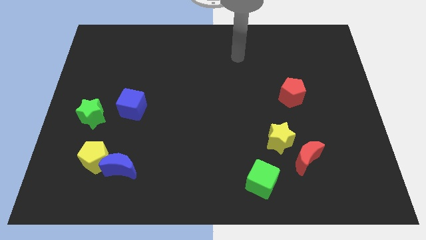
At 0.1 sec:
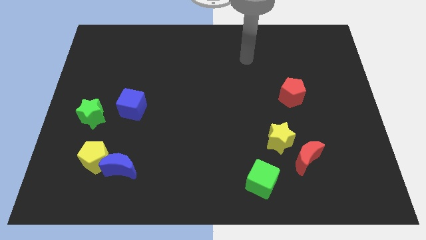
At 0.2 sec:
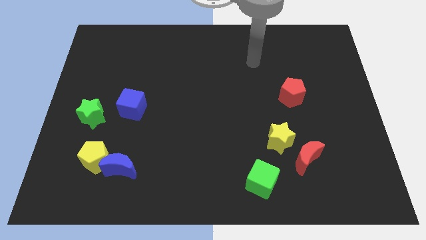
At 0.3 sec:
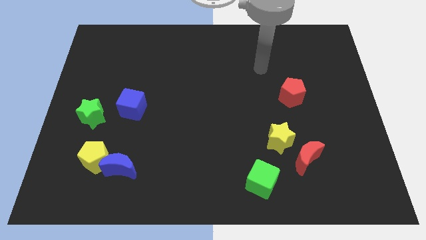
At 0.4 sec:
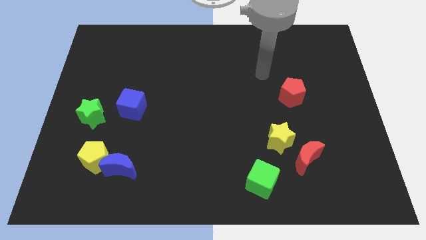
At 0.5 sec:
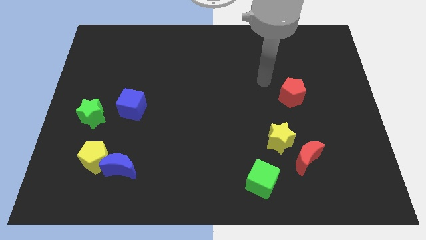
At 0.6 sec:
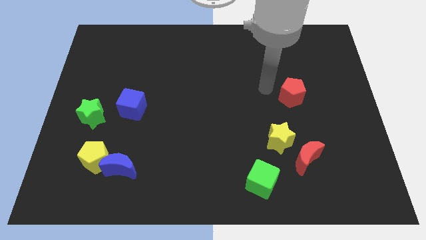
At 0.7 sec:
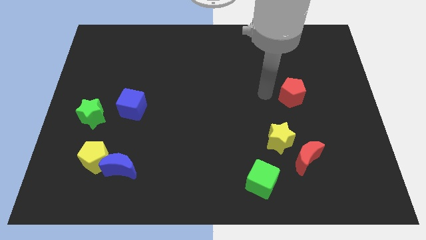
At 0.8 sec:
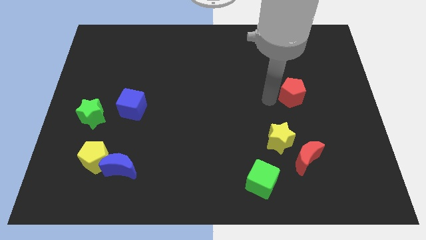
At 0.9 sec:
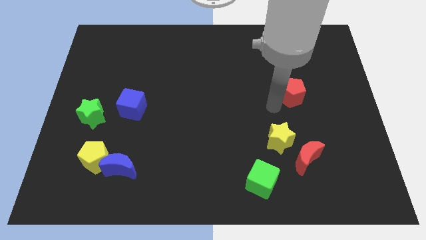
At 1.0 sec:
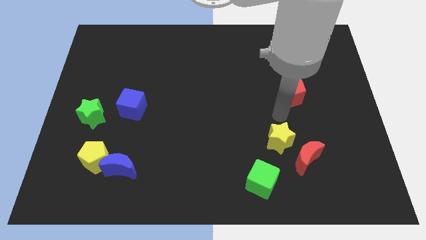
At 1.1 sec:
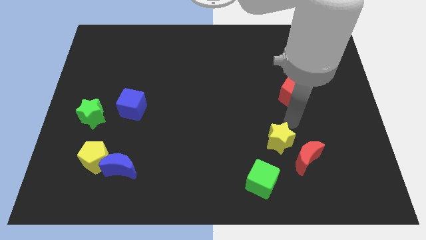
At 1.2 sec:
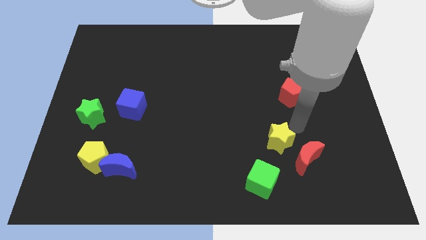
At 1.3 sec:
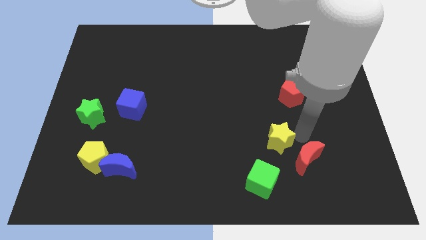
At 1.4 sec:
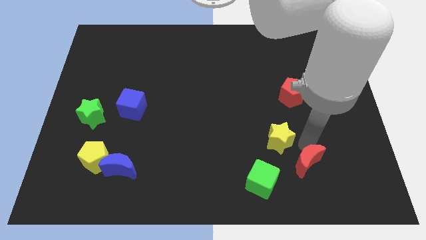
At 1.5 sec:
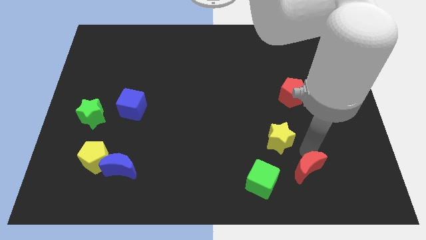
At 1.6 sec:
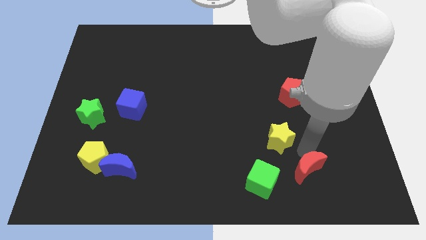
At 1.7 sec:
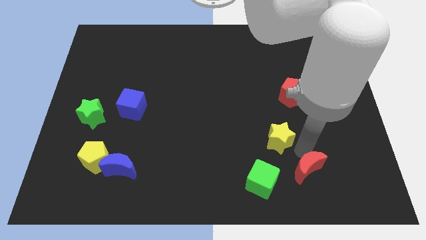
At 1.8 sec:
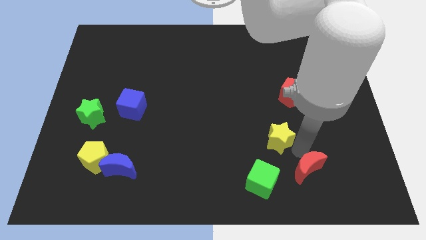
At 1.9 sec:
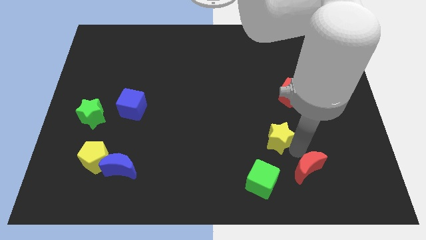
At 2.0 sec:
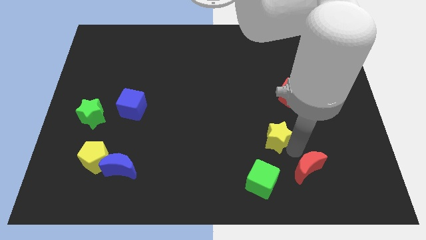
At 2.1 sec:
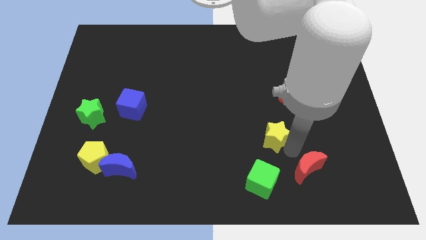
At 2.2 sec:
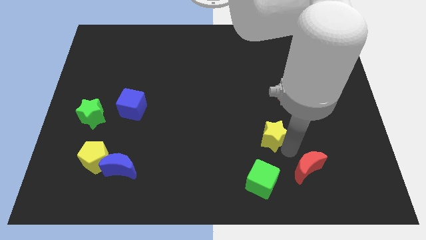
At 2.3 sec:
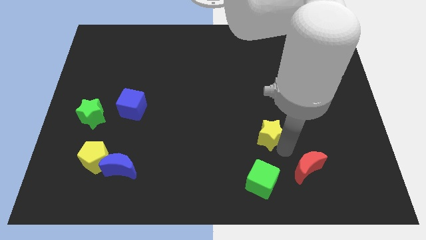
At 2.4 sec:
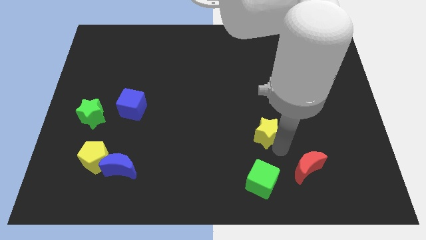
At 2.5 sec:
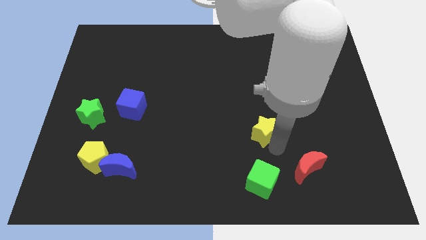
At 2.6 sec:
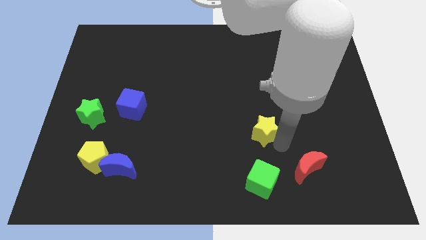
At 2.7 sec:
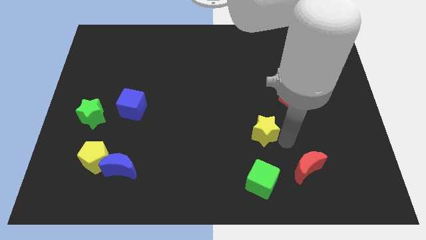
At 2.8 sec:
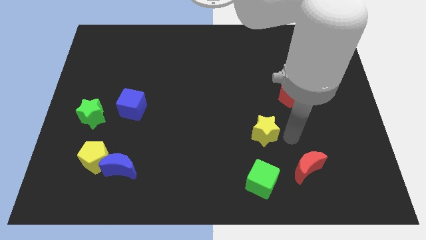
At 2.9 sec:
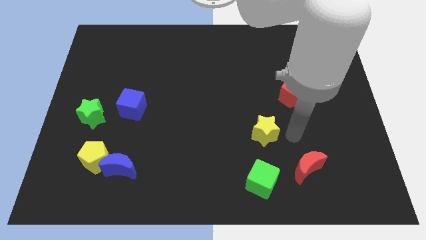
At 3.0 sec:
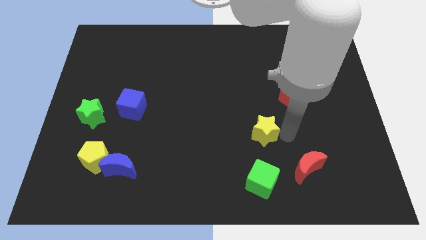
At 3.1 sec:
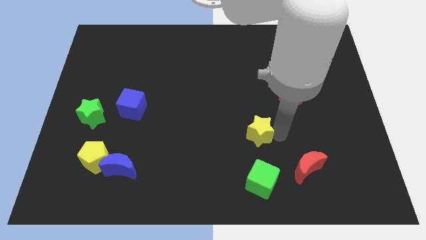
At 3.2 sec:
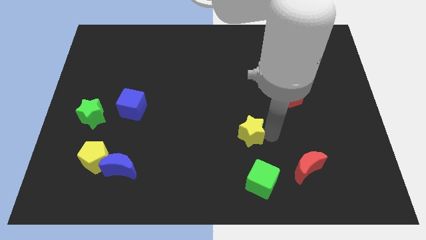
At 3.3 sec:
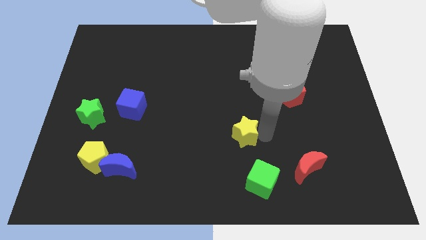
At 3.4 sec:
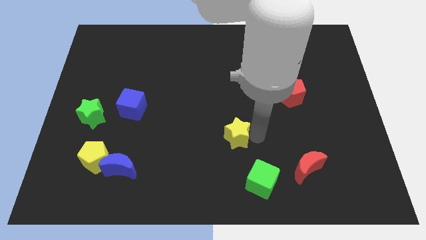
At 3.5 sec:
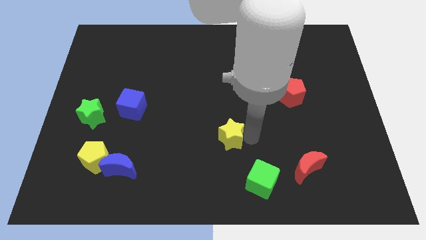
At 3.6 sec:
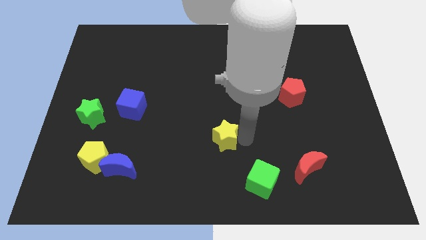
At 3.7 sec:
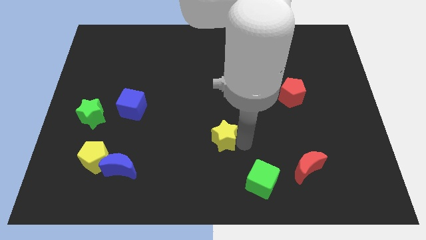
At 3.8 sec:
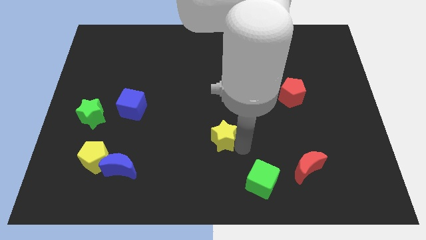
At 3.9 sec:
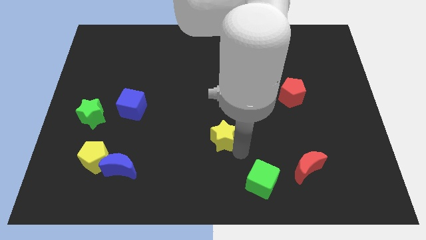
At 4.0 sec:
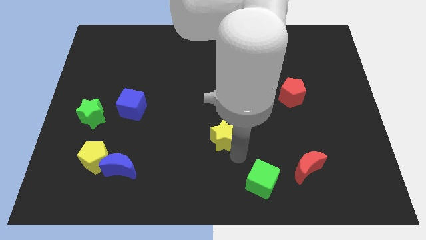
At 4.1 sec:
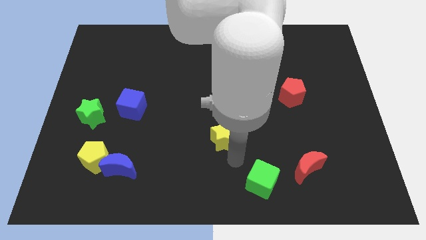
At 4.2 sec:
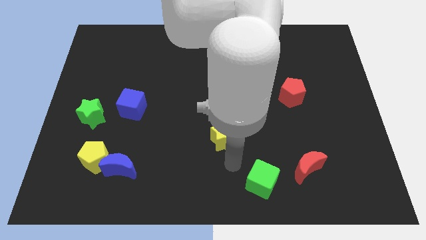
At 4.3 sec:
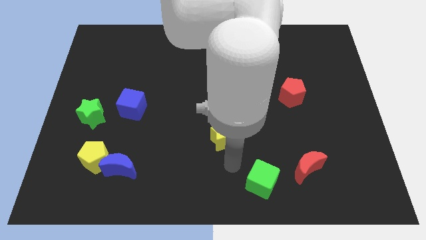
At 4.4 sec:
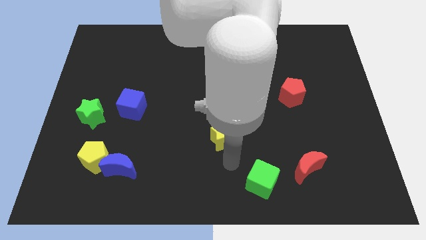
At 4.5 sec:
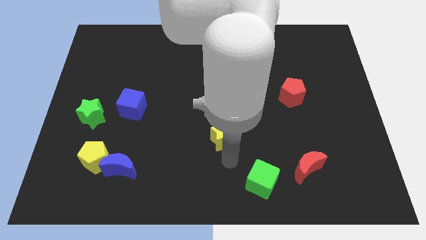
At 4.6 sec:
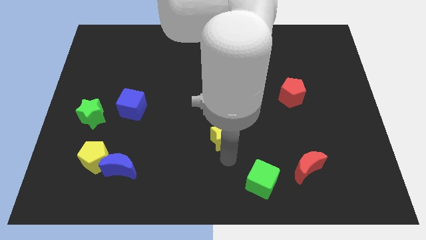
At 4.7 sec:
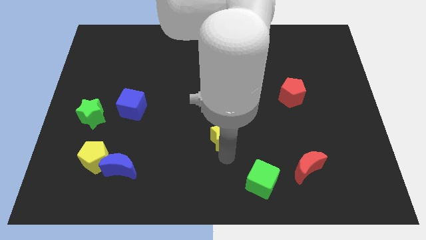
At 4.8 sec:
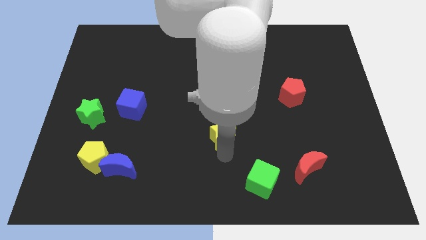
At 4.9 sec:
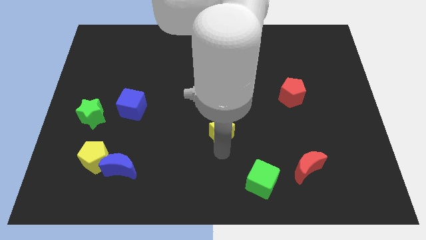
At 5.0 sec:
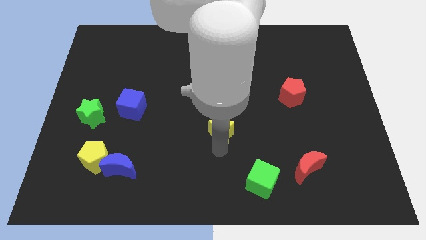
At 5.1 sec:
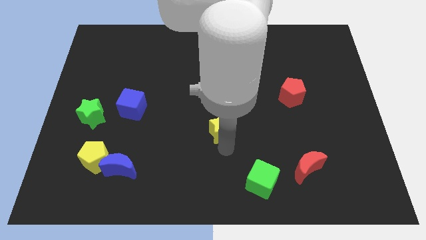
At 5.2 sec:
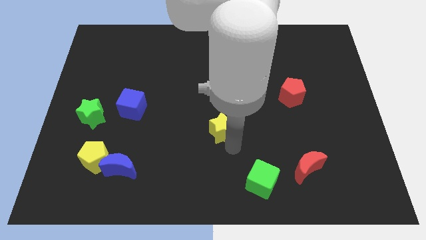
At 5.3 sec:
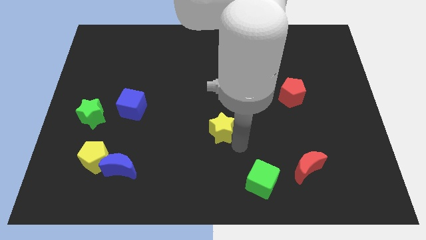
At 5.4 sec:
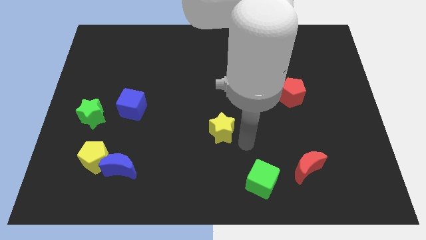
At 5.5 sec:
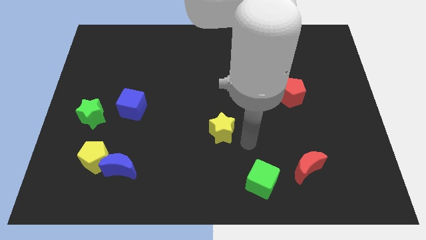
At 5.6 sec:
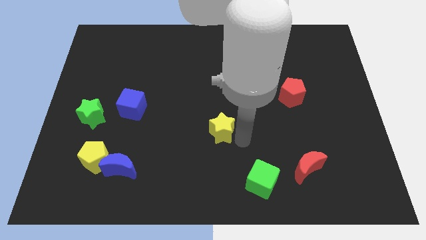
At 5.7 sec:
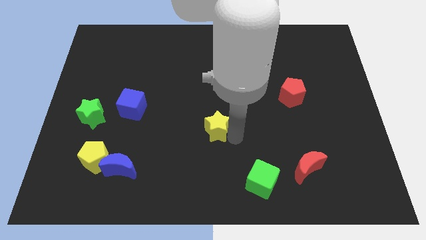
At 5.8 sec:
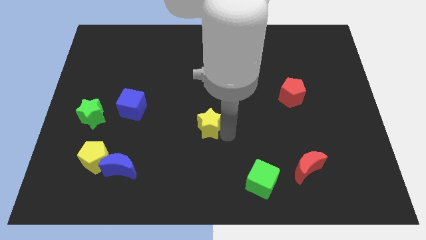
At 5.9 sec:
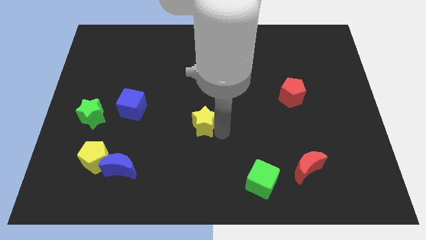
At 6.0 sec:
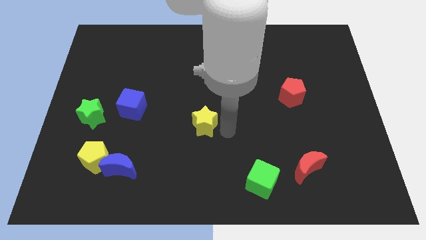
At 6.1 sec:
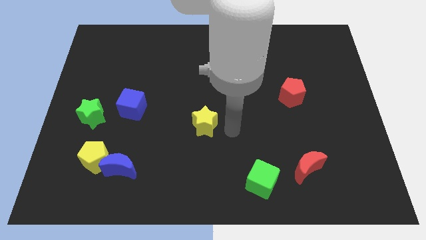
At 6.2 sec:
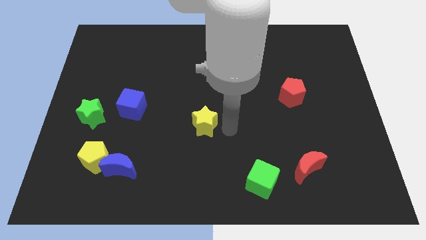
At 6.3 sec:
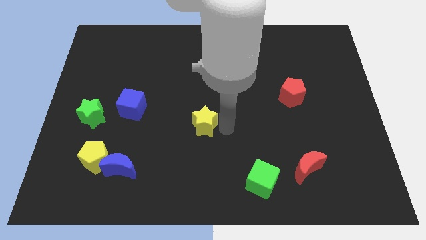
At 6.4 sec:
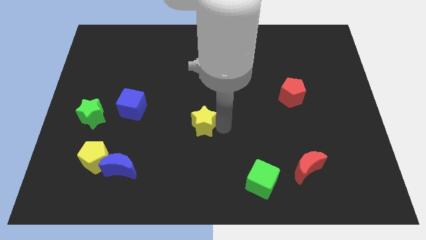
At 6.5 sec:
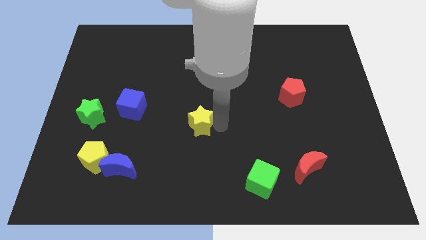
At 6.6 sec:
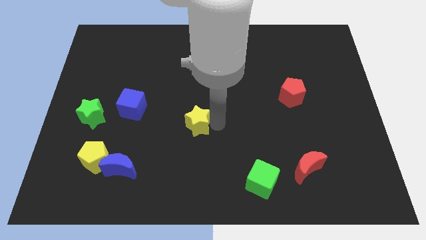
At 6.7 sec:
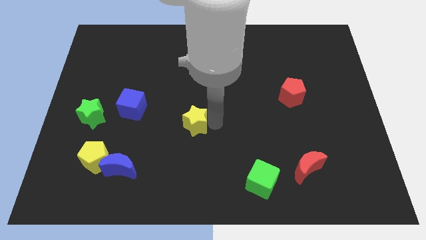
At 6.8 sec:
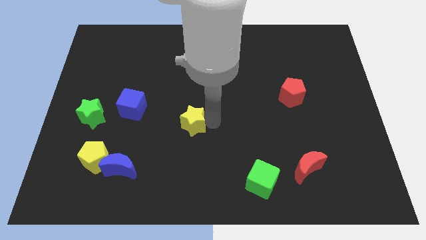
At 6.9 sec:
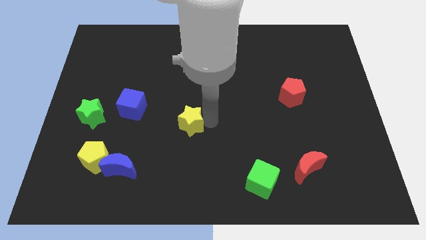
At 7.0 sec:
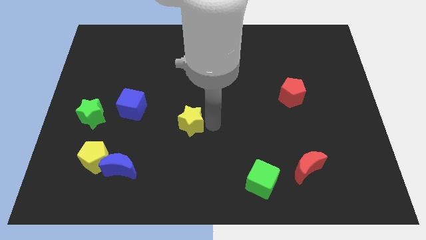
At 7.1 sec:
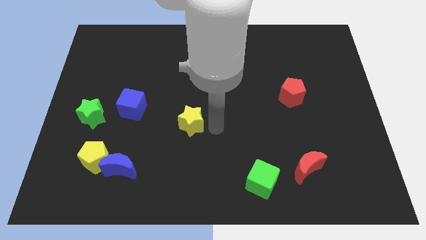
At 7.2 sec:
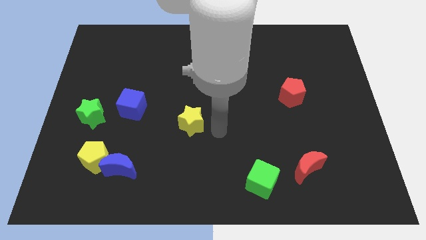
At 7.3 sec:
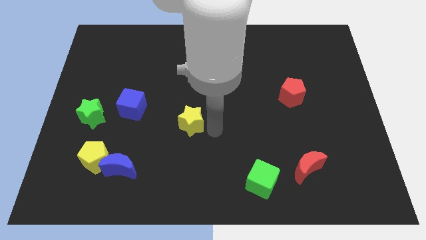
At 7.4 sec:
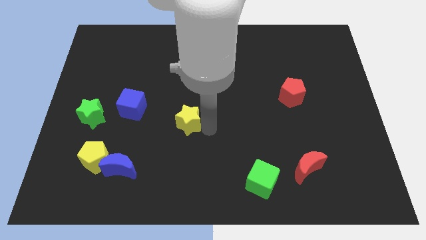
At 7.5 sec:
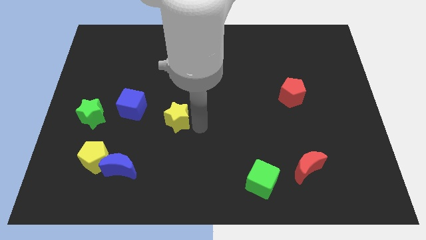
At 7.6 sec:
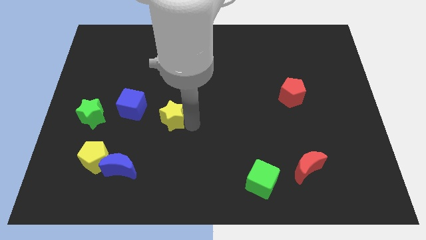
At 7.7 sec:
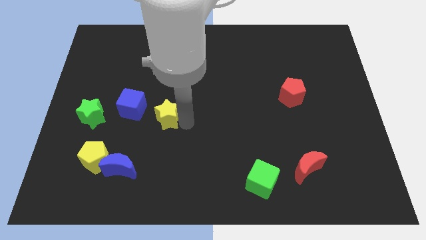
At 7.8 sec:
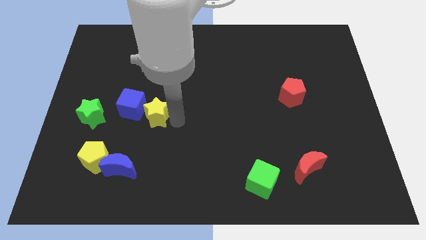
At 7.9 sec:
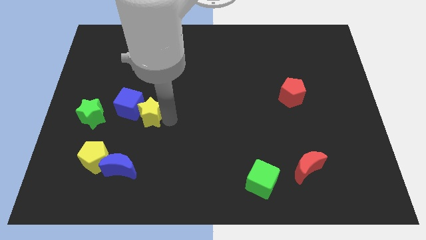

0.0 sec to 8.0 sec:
push the yellow star close to the blue cube
